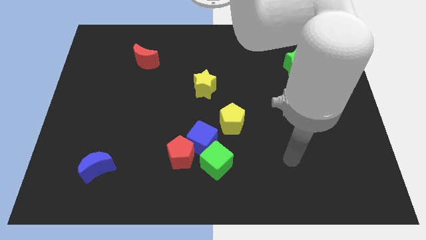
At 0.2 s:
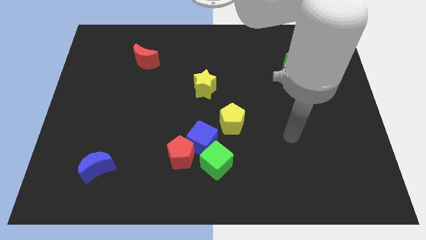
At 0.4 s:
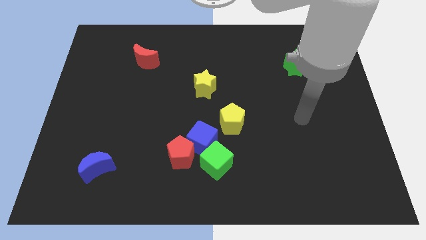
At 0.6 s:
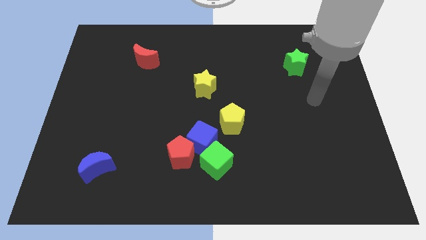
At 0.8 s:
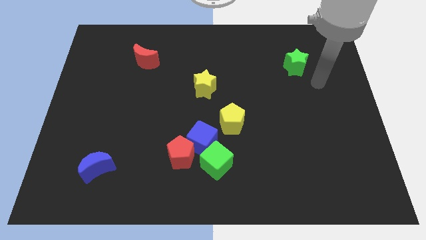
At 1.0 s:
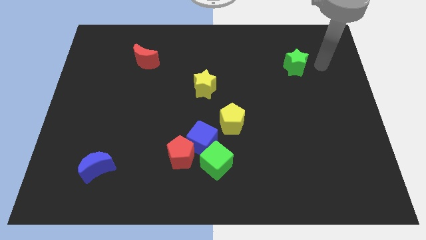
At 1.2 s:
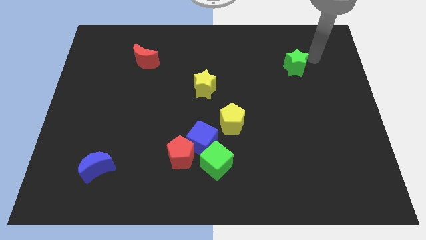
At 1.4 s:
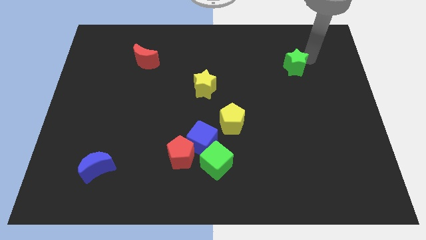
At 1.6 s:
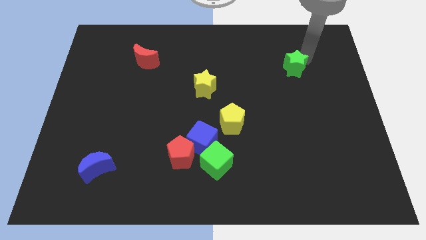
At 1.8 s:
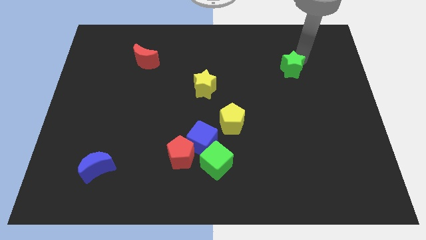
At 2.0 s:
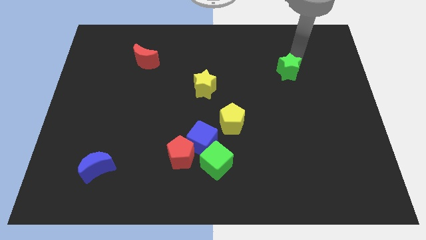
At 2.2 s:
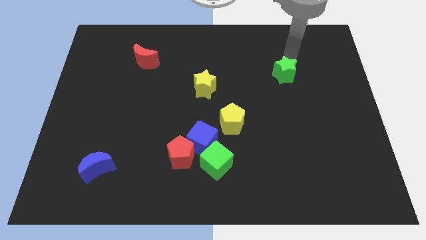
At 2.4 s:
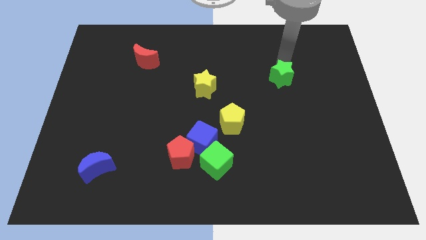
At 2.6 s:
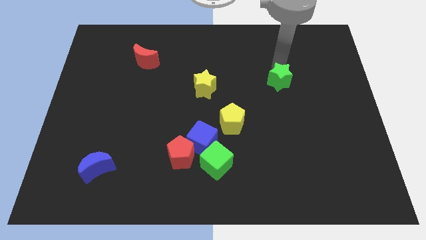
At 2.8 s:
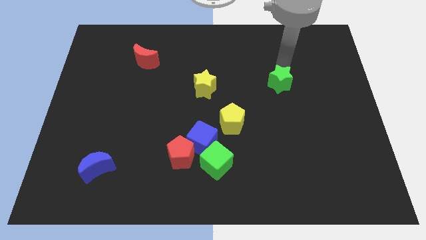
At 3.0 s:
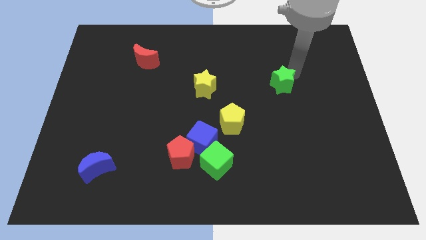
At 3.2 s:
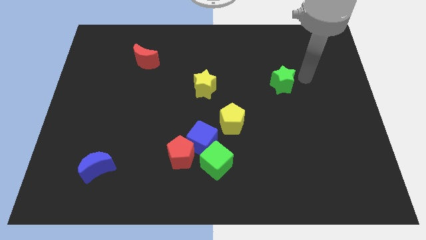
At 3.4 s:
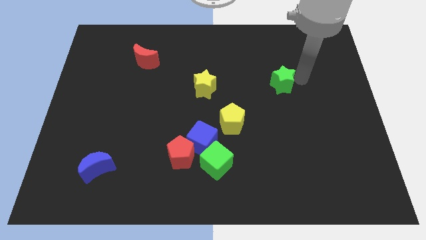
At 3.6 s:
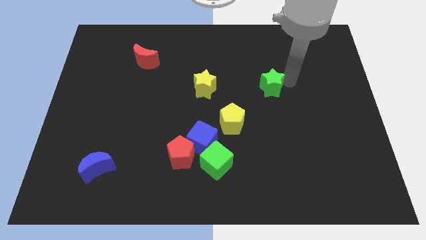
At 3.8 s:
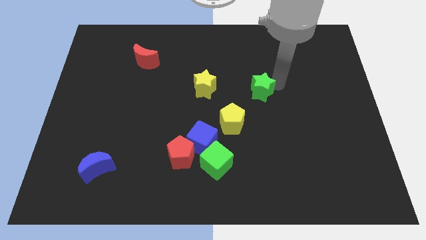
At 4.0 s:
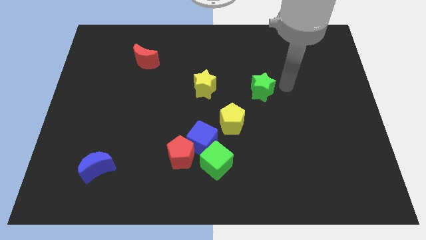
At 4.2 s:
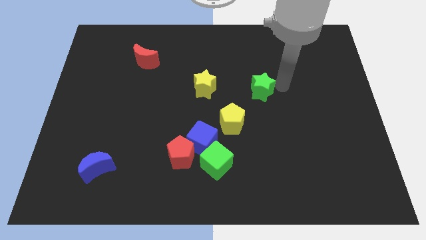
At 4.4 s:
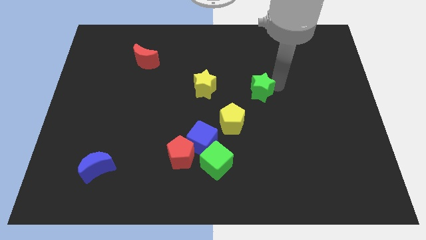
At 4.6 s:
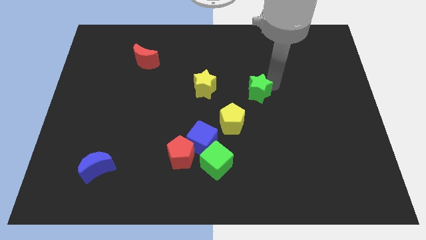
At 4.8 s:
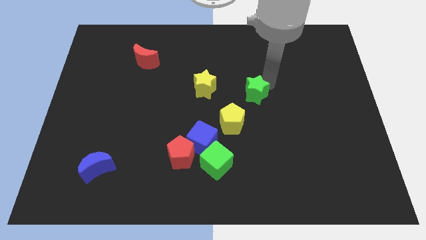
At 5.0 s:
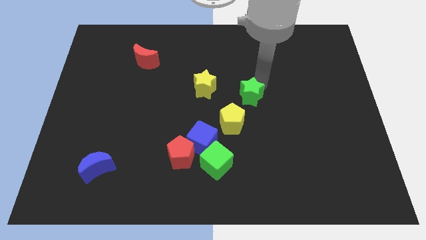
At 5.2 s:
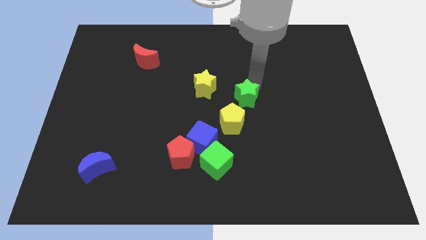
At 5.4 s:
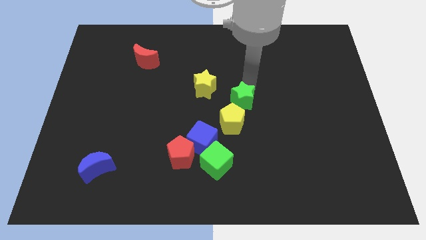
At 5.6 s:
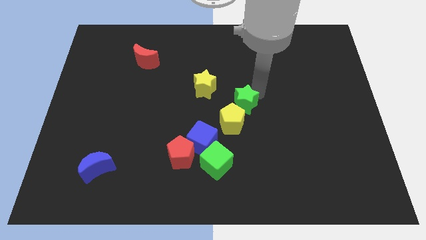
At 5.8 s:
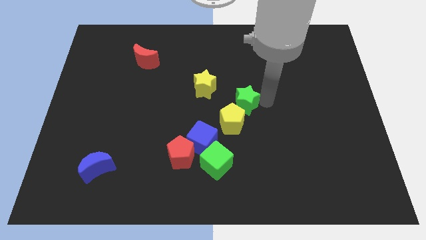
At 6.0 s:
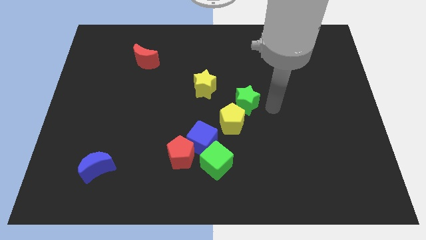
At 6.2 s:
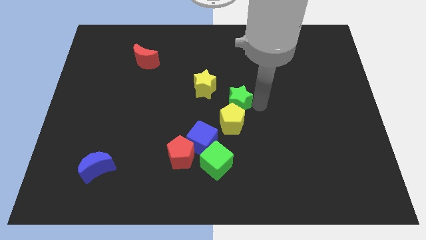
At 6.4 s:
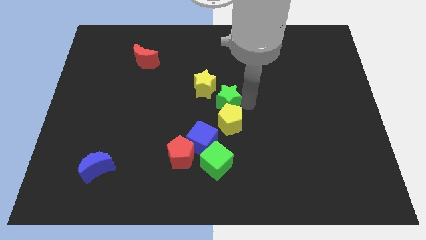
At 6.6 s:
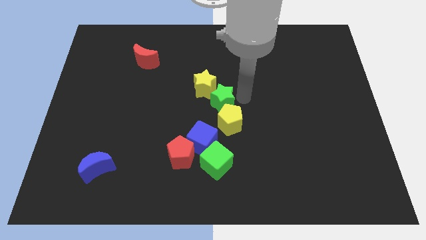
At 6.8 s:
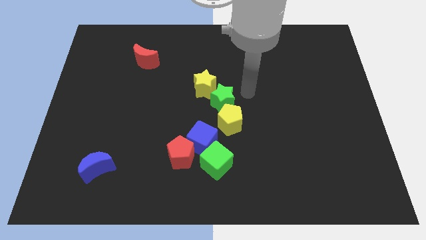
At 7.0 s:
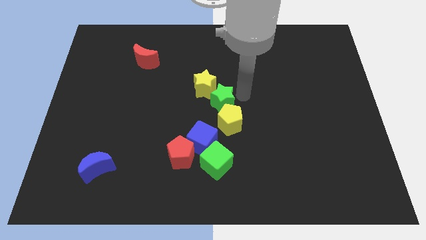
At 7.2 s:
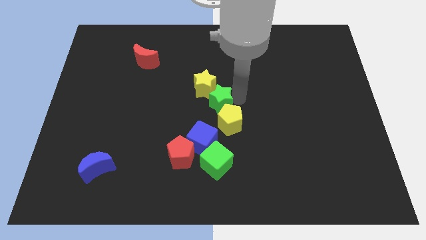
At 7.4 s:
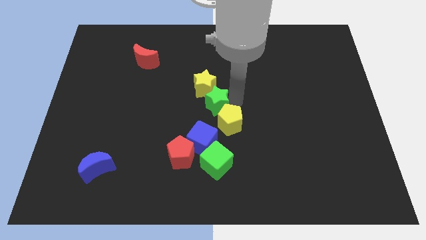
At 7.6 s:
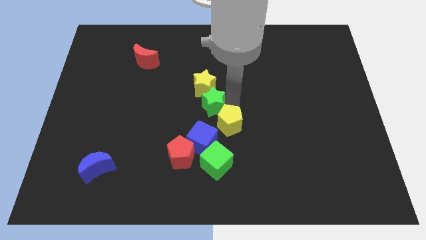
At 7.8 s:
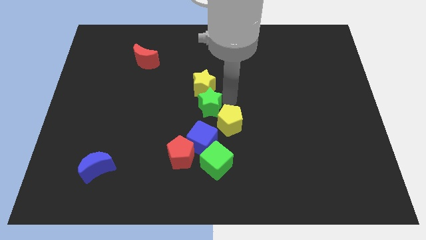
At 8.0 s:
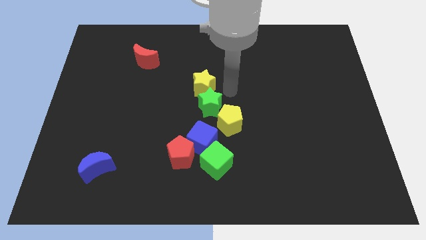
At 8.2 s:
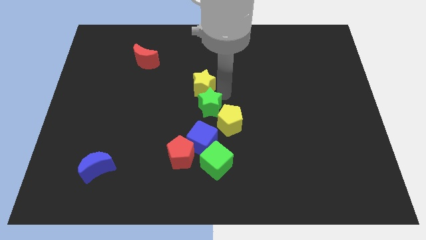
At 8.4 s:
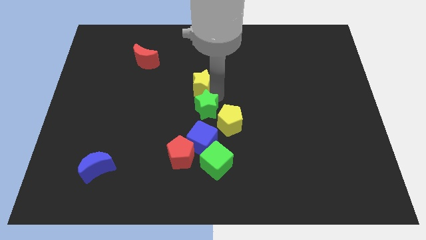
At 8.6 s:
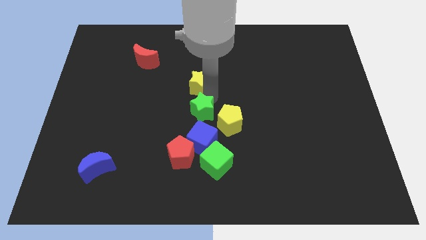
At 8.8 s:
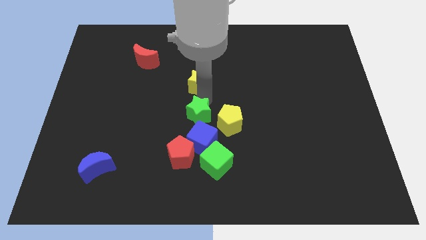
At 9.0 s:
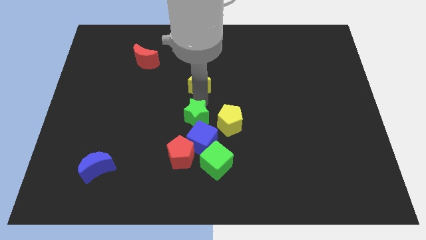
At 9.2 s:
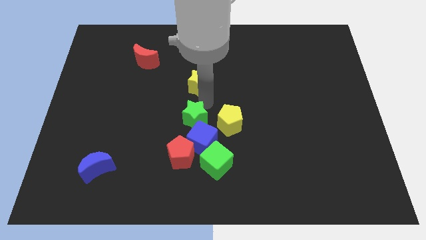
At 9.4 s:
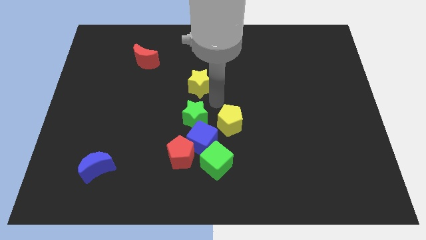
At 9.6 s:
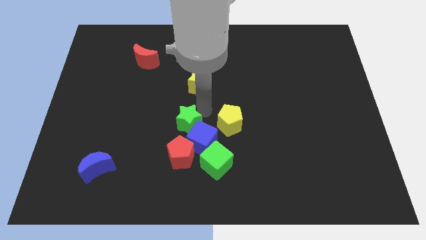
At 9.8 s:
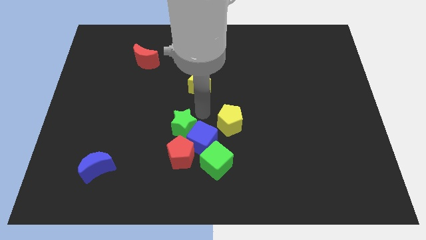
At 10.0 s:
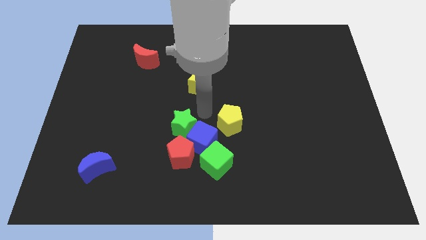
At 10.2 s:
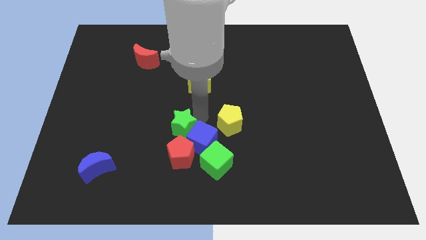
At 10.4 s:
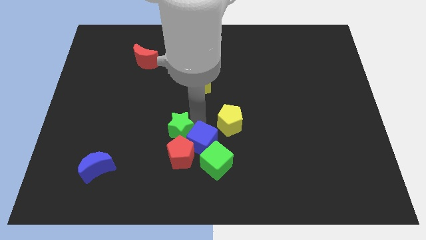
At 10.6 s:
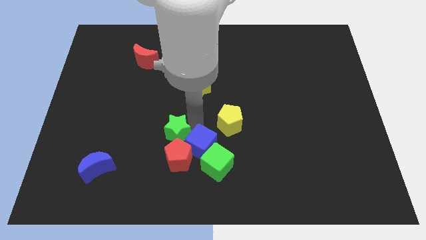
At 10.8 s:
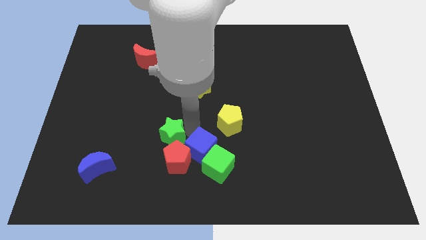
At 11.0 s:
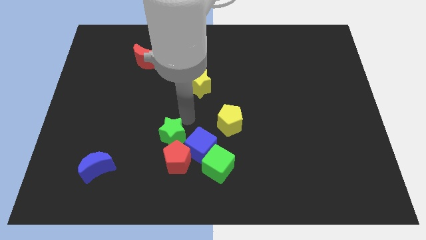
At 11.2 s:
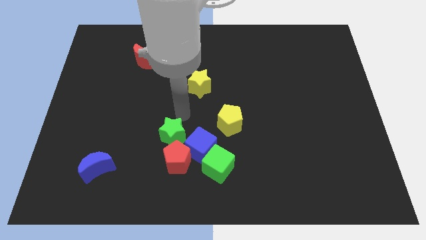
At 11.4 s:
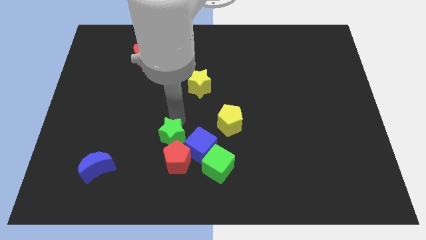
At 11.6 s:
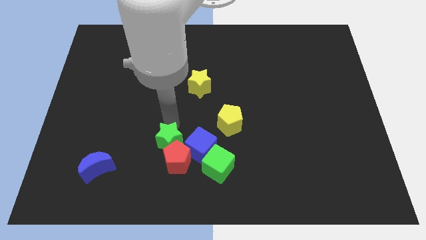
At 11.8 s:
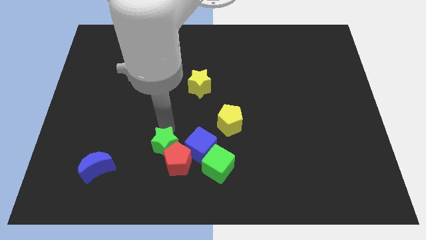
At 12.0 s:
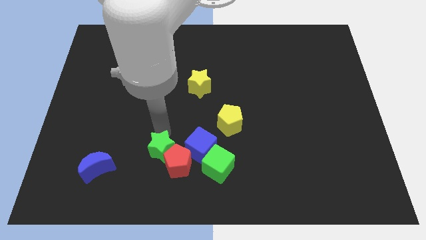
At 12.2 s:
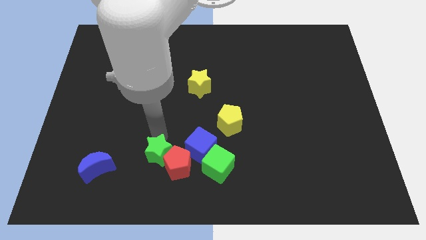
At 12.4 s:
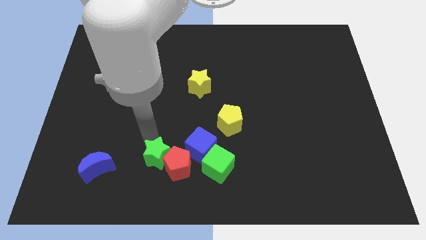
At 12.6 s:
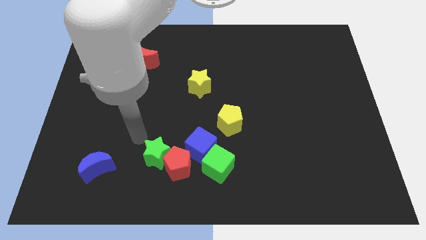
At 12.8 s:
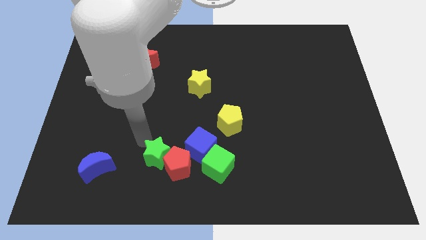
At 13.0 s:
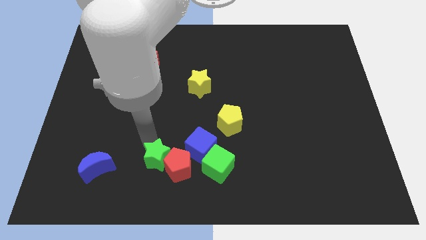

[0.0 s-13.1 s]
push the green star diagonally down and to the left of the blue cube

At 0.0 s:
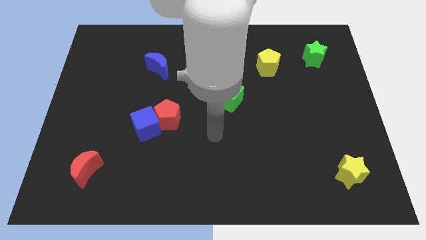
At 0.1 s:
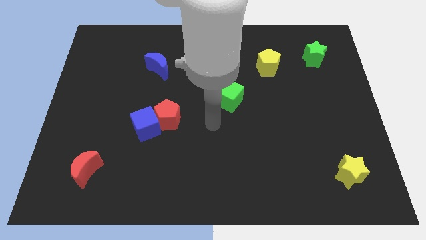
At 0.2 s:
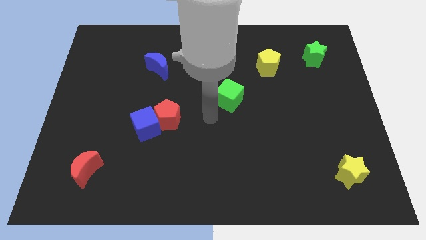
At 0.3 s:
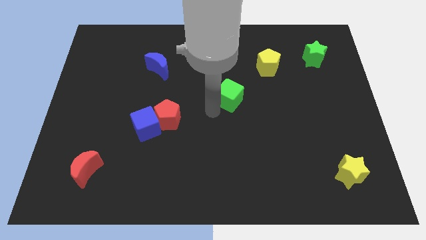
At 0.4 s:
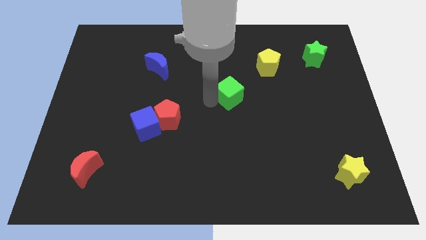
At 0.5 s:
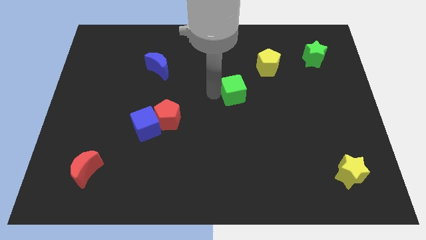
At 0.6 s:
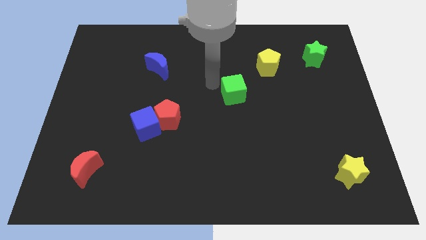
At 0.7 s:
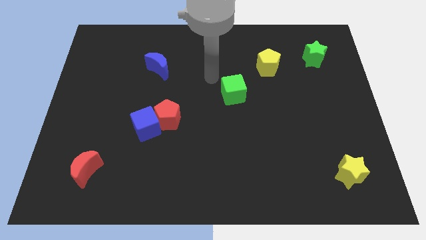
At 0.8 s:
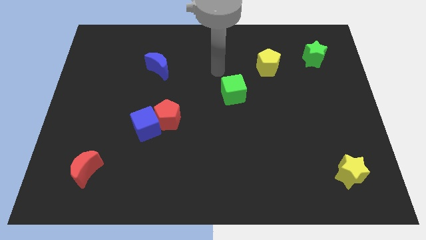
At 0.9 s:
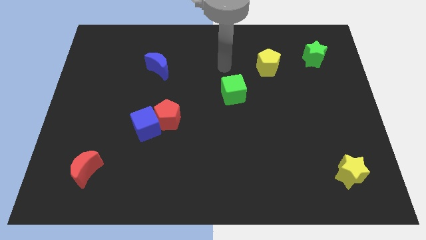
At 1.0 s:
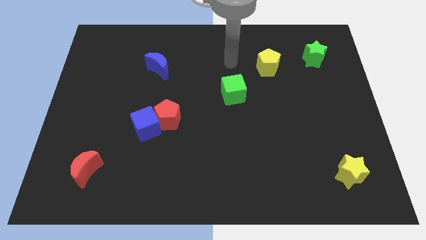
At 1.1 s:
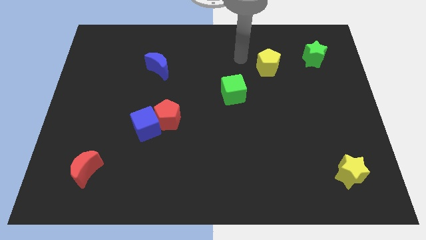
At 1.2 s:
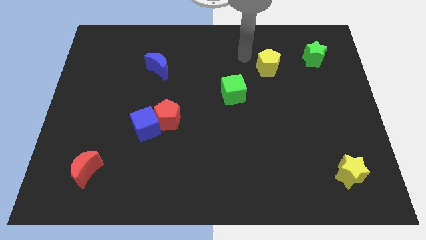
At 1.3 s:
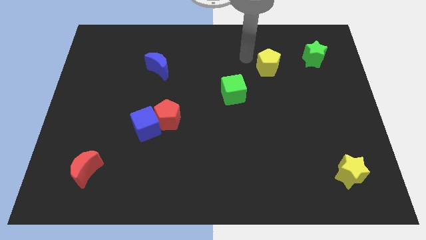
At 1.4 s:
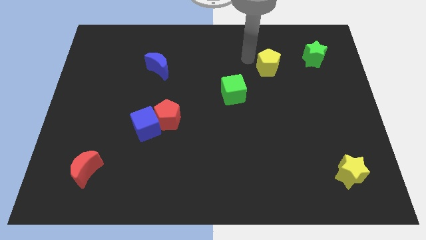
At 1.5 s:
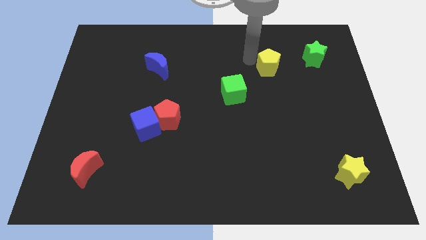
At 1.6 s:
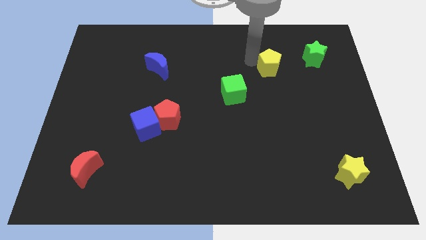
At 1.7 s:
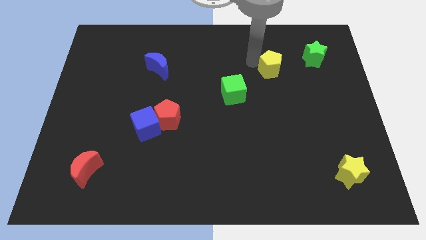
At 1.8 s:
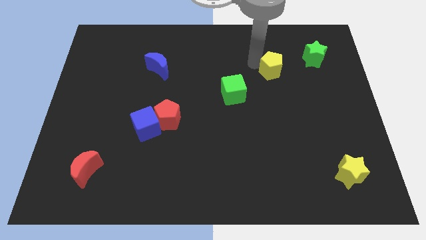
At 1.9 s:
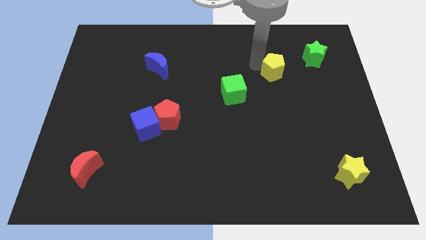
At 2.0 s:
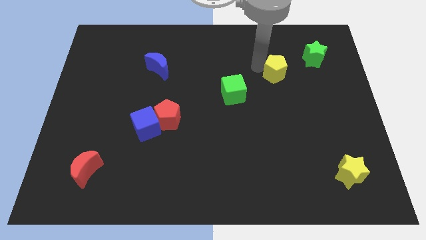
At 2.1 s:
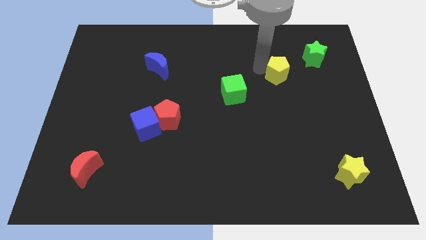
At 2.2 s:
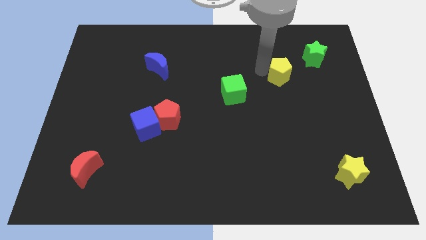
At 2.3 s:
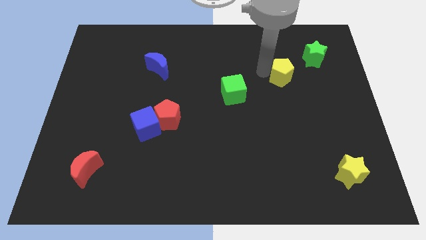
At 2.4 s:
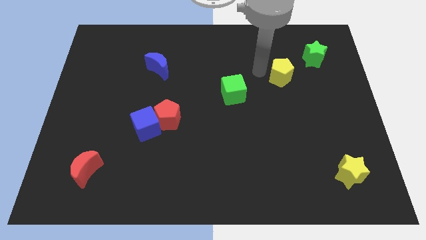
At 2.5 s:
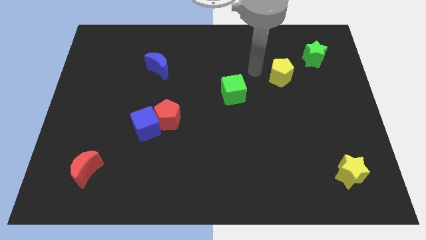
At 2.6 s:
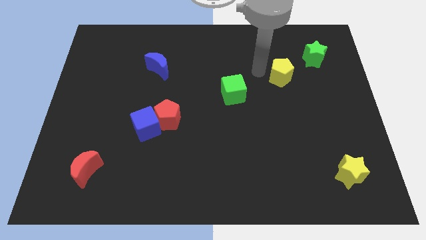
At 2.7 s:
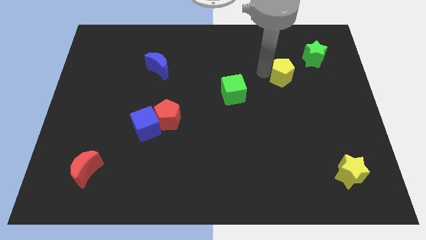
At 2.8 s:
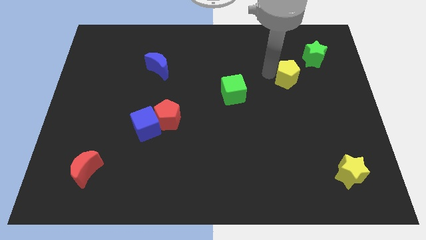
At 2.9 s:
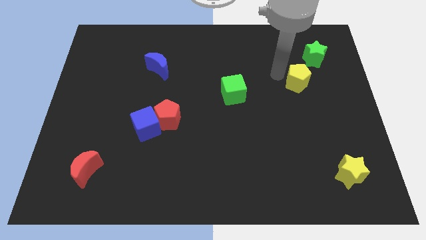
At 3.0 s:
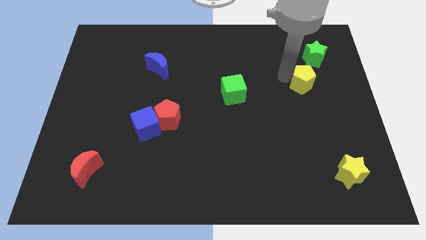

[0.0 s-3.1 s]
move the yellow pentagon below the green star
